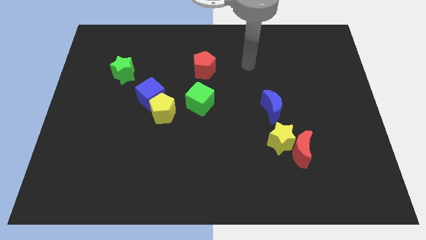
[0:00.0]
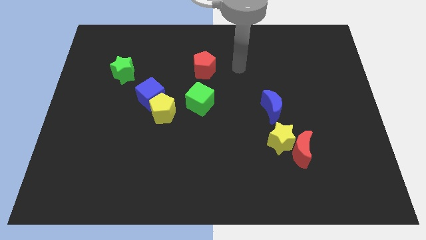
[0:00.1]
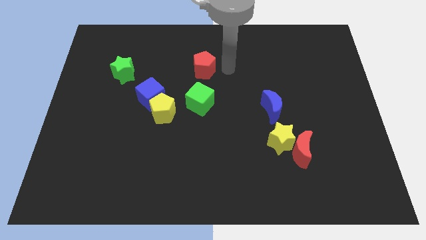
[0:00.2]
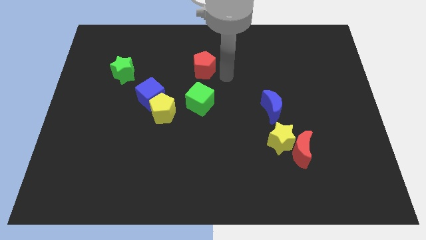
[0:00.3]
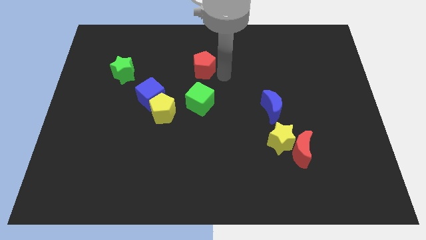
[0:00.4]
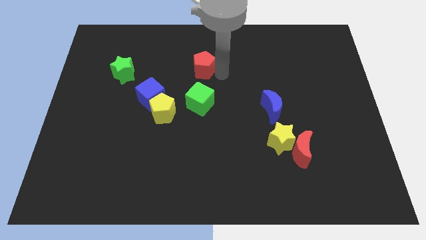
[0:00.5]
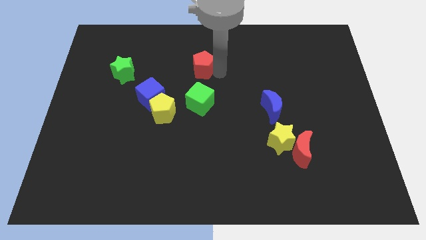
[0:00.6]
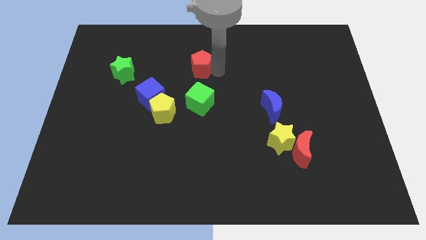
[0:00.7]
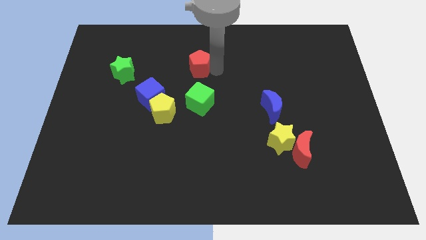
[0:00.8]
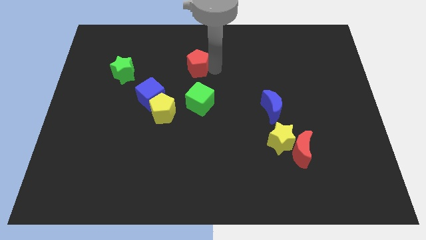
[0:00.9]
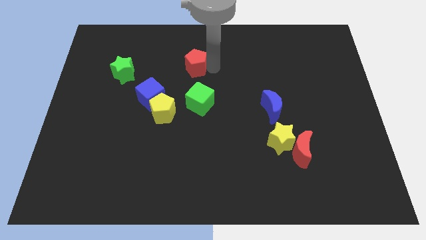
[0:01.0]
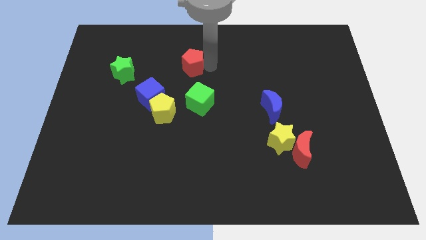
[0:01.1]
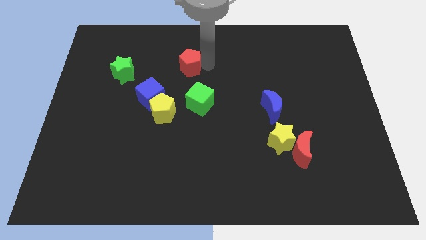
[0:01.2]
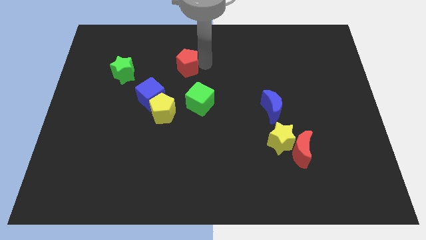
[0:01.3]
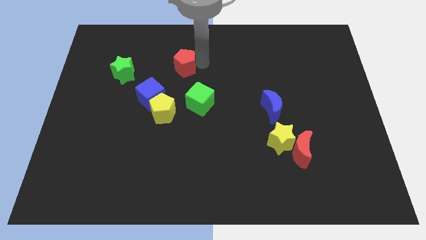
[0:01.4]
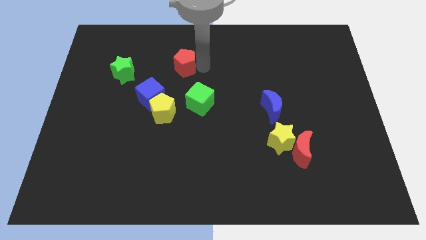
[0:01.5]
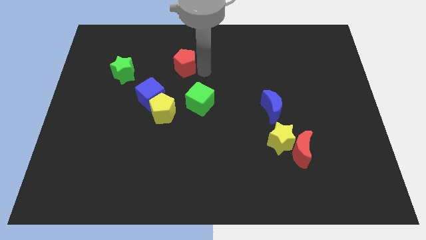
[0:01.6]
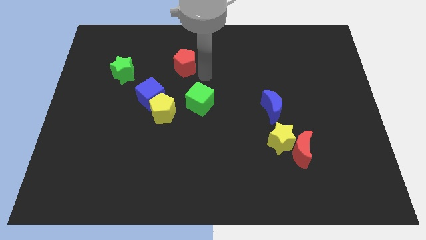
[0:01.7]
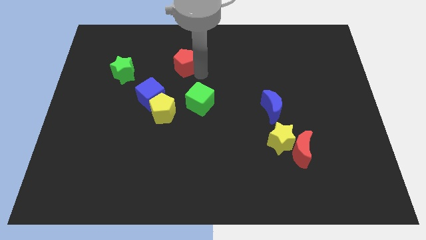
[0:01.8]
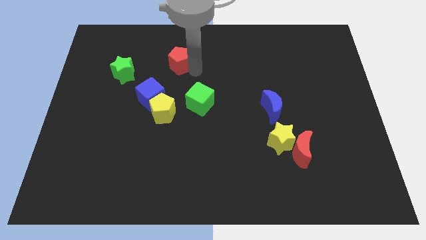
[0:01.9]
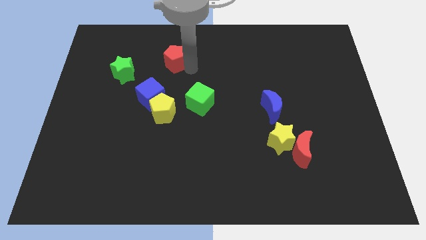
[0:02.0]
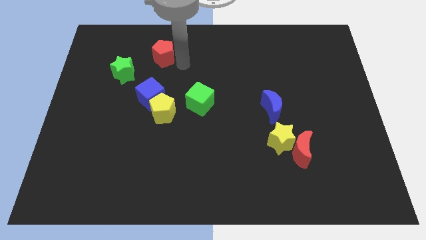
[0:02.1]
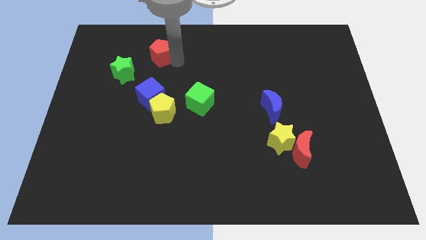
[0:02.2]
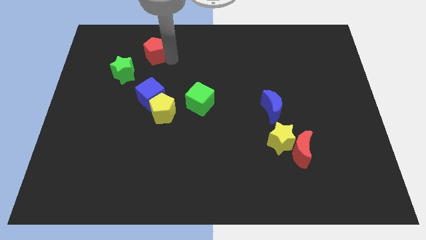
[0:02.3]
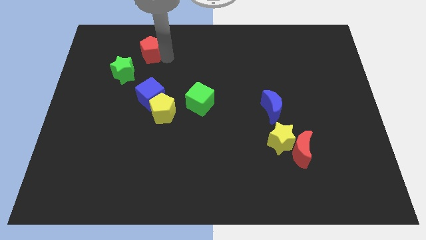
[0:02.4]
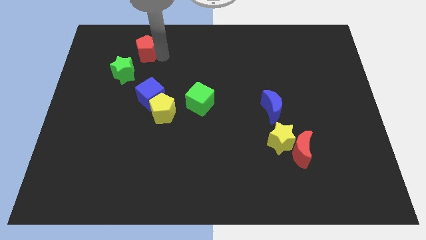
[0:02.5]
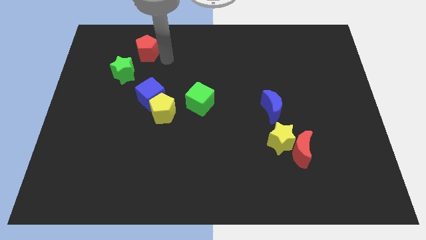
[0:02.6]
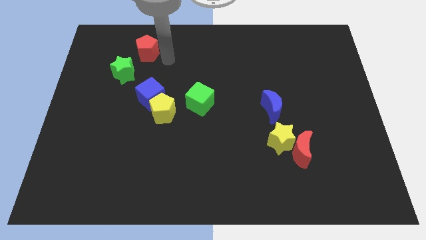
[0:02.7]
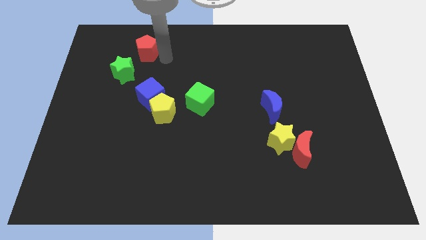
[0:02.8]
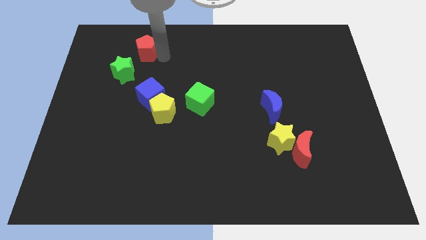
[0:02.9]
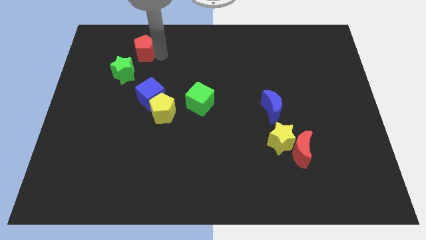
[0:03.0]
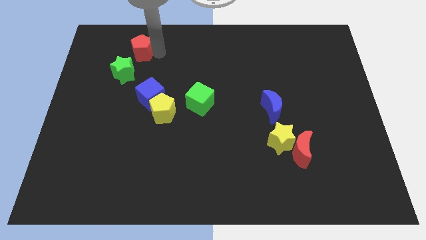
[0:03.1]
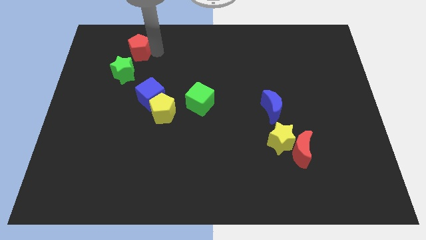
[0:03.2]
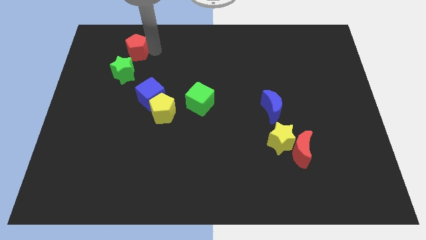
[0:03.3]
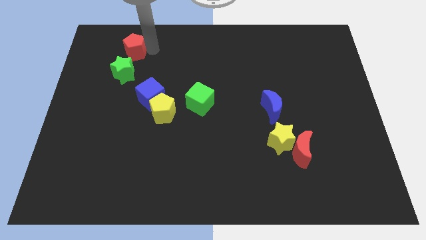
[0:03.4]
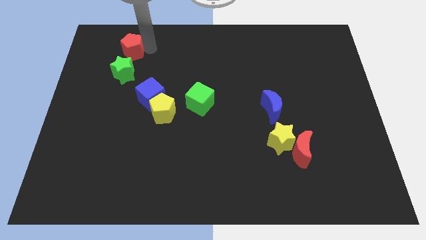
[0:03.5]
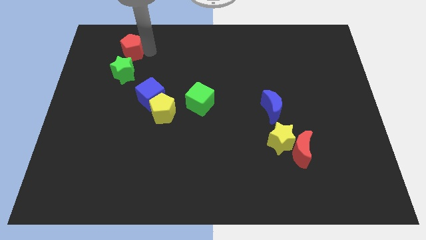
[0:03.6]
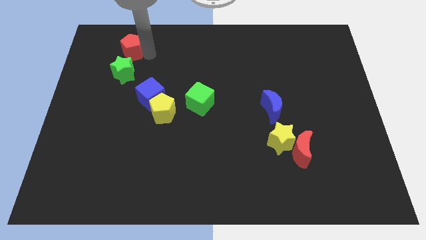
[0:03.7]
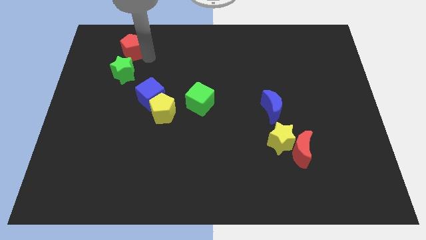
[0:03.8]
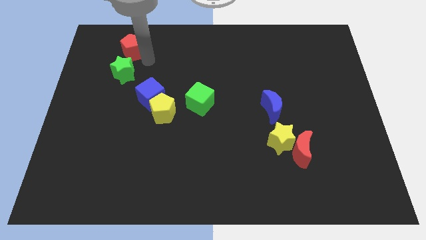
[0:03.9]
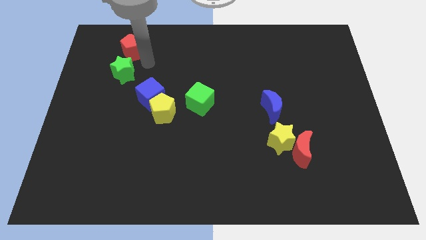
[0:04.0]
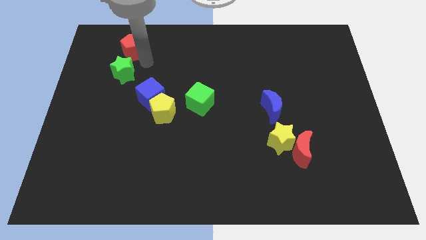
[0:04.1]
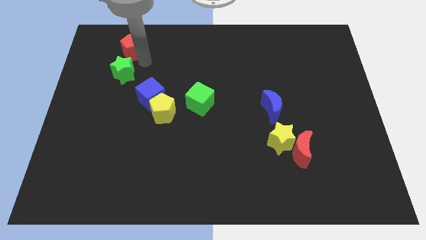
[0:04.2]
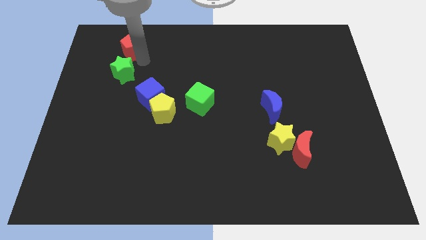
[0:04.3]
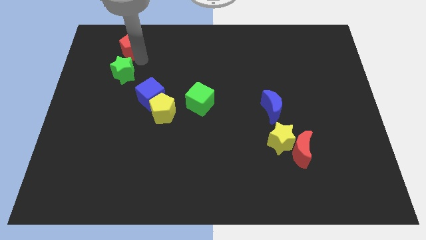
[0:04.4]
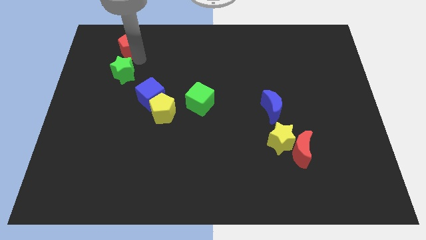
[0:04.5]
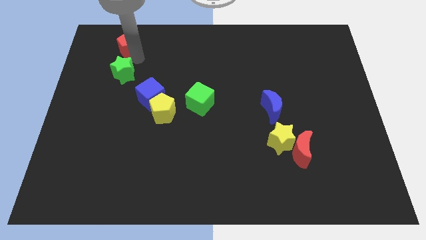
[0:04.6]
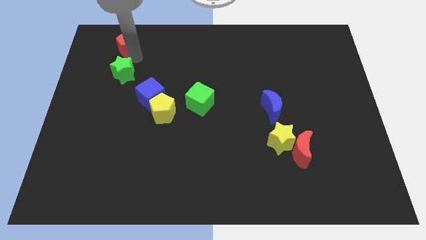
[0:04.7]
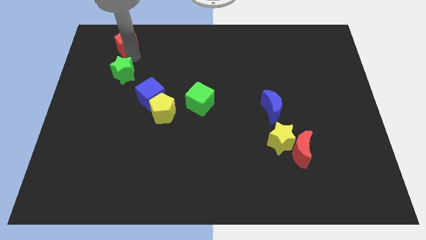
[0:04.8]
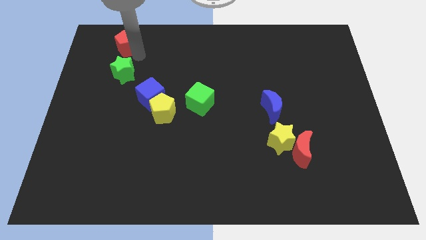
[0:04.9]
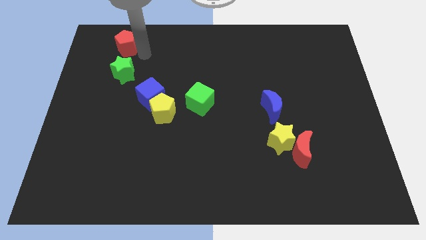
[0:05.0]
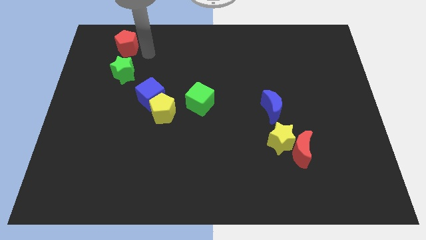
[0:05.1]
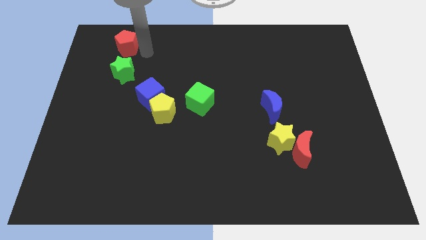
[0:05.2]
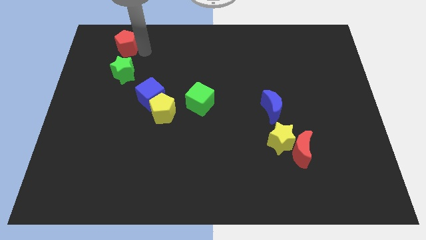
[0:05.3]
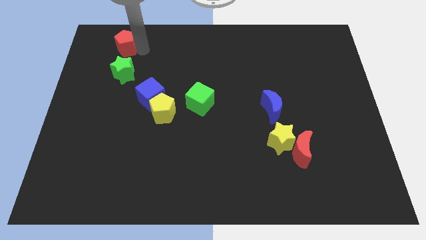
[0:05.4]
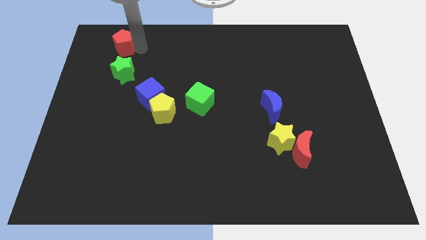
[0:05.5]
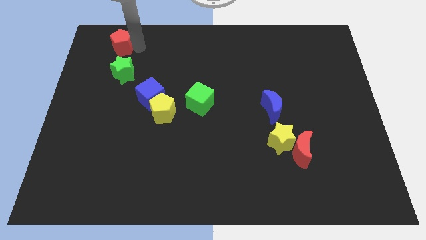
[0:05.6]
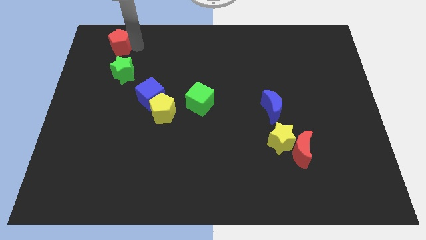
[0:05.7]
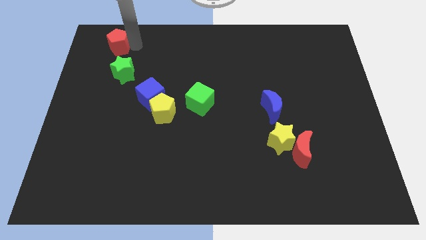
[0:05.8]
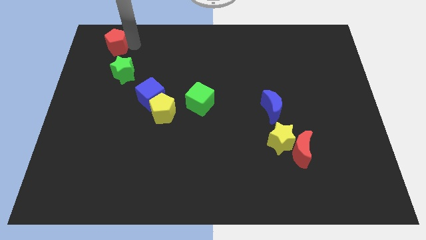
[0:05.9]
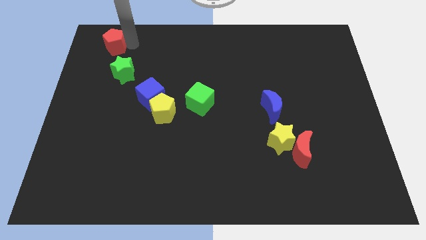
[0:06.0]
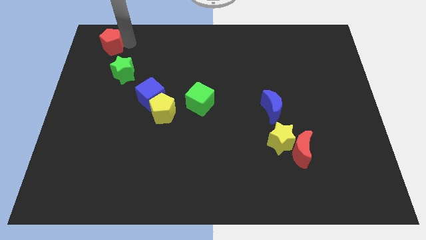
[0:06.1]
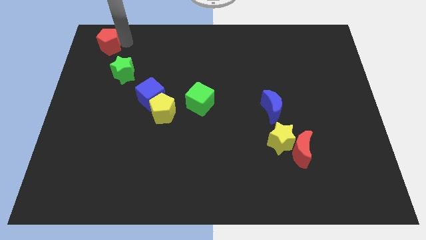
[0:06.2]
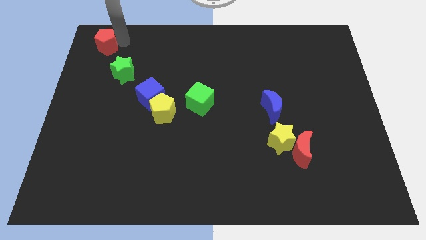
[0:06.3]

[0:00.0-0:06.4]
push the red pentagon to the top left corner

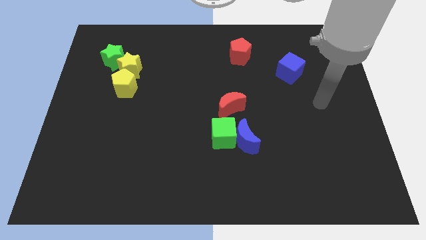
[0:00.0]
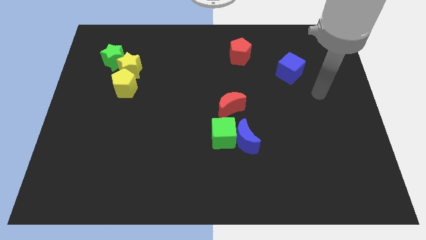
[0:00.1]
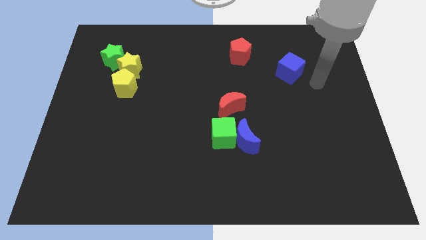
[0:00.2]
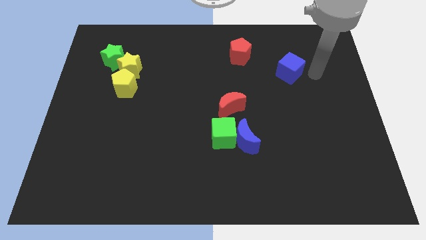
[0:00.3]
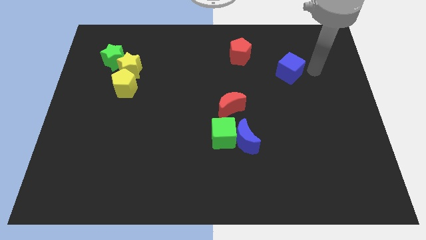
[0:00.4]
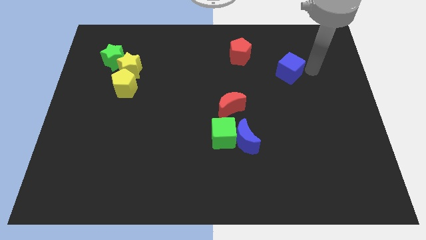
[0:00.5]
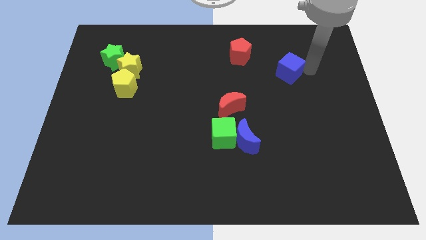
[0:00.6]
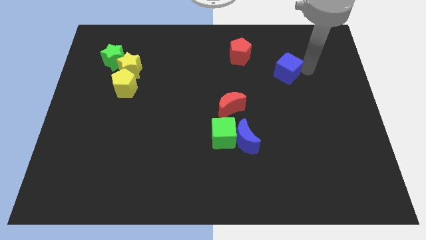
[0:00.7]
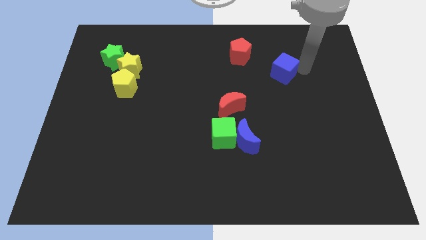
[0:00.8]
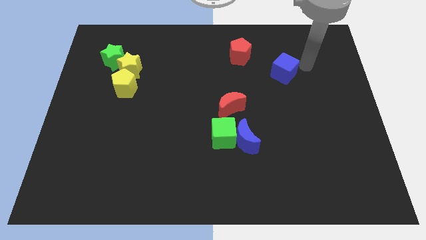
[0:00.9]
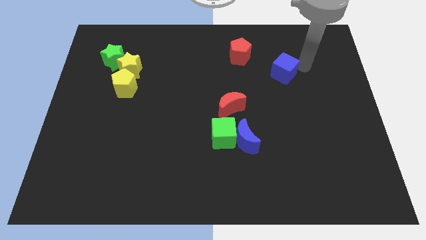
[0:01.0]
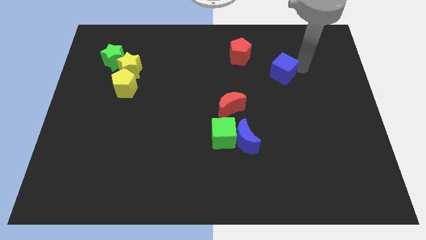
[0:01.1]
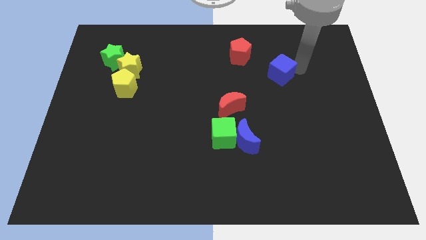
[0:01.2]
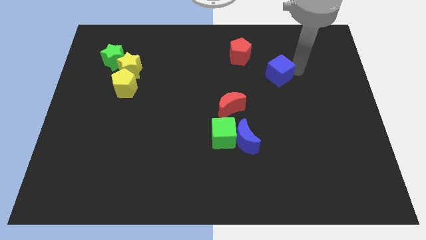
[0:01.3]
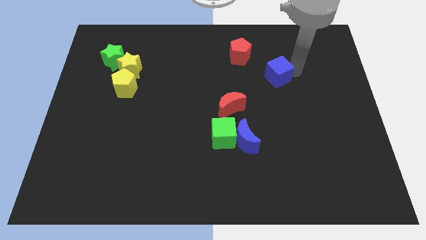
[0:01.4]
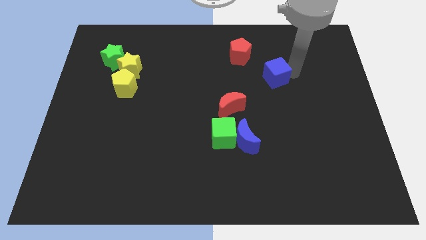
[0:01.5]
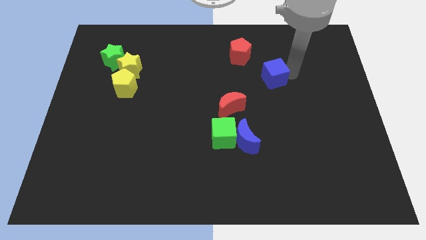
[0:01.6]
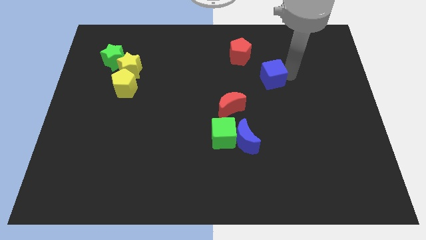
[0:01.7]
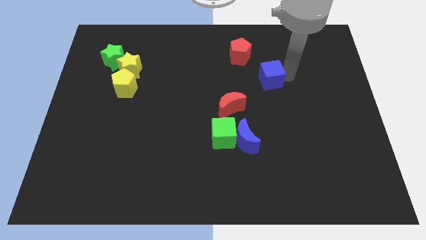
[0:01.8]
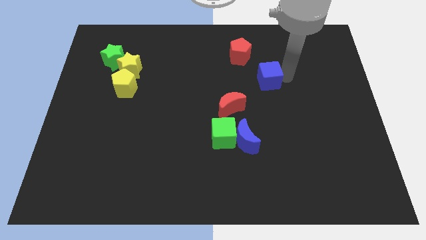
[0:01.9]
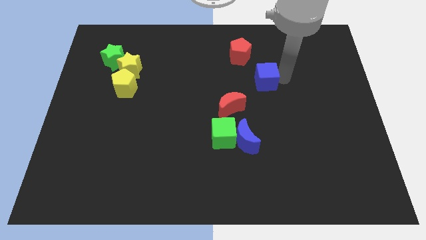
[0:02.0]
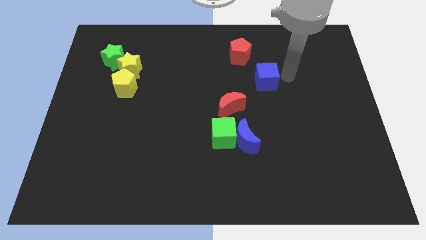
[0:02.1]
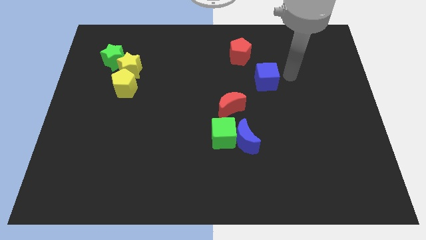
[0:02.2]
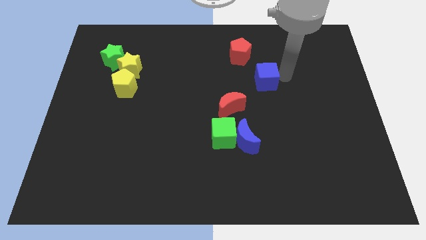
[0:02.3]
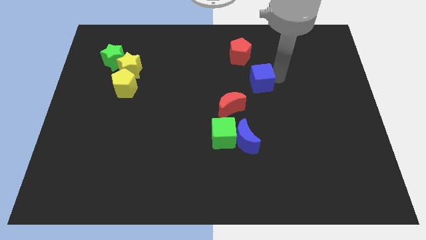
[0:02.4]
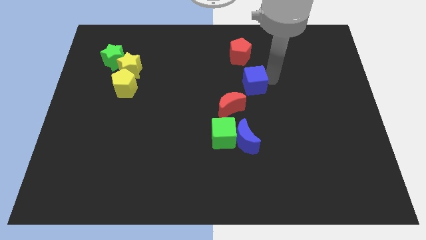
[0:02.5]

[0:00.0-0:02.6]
put the blue cube to the middle of the board
